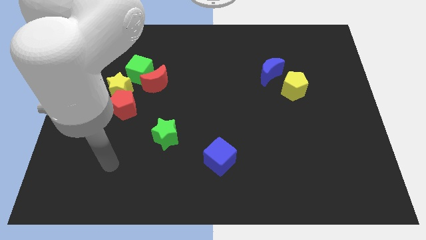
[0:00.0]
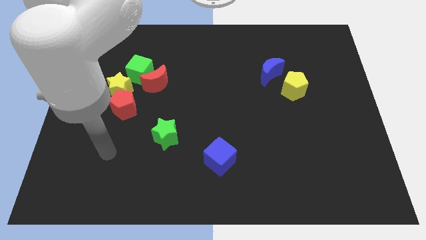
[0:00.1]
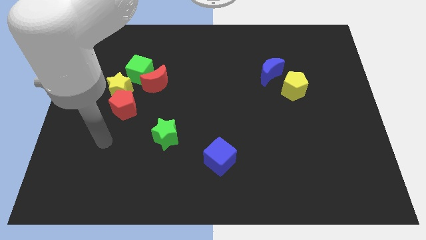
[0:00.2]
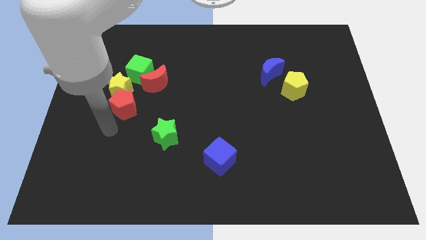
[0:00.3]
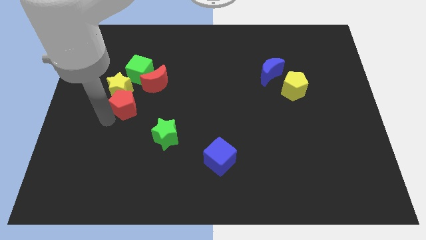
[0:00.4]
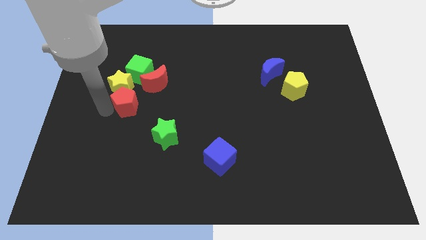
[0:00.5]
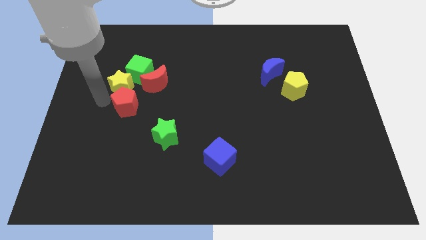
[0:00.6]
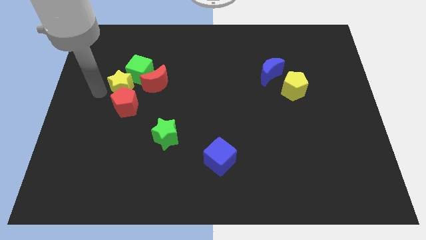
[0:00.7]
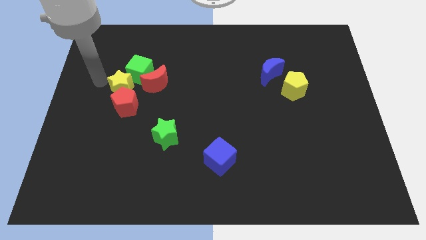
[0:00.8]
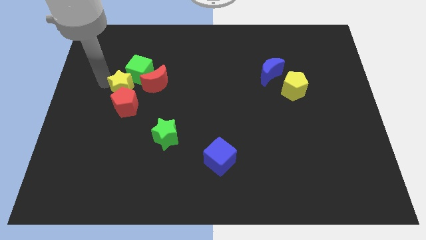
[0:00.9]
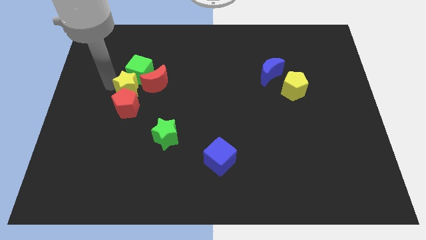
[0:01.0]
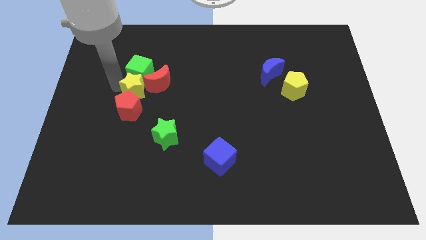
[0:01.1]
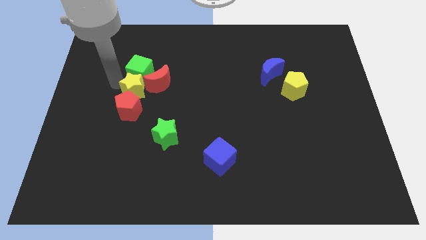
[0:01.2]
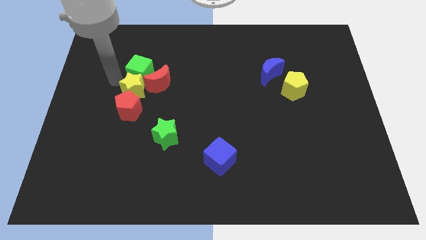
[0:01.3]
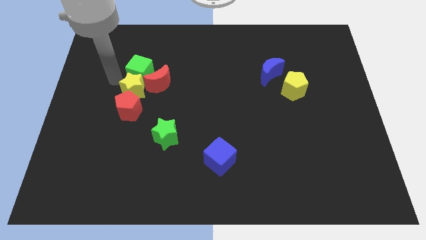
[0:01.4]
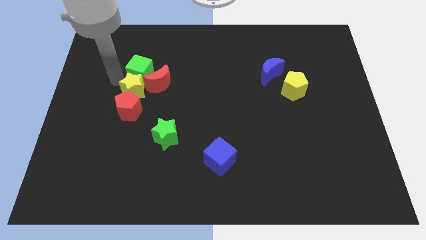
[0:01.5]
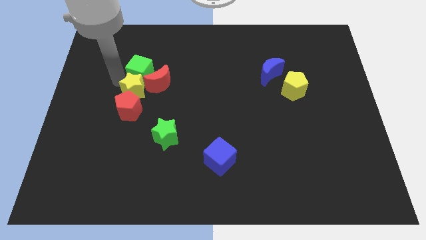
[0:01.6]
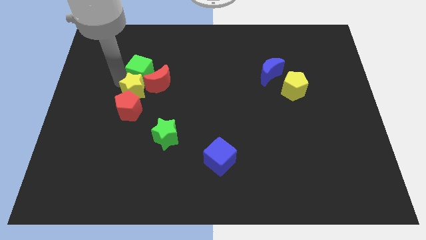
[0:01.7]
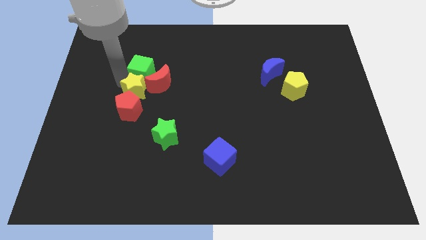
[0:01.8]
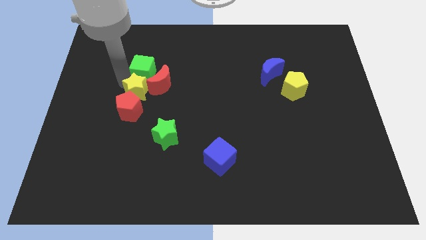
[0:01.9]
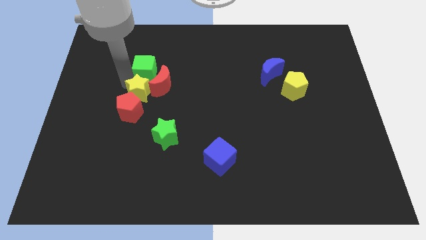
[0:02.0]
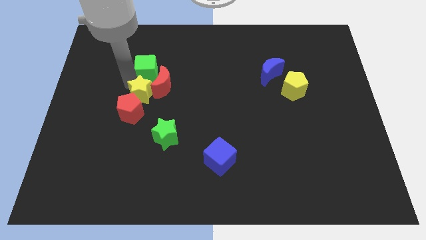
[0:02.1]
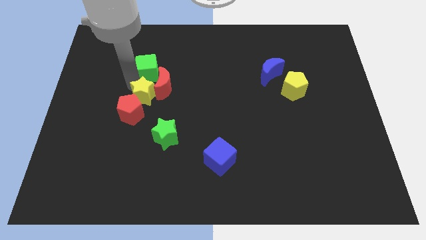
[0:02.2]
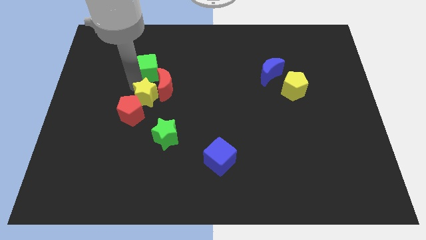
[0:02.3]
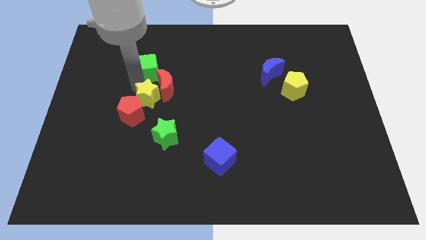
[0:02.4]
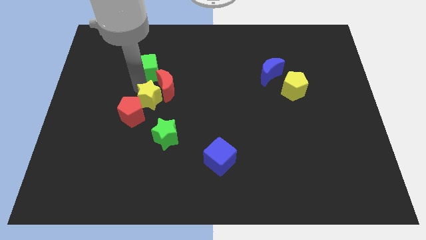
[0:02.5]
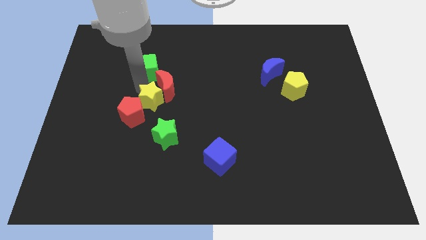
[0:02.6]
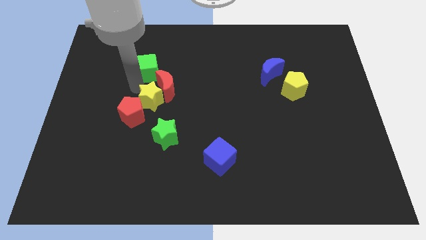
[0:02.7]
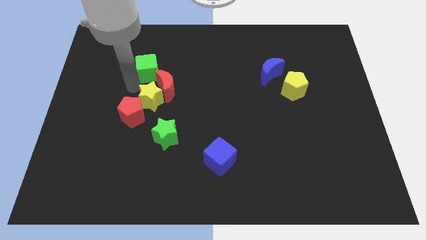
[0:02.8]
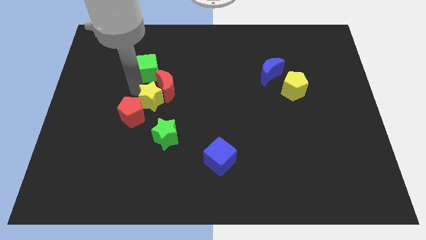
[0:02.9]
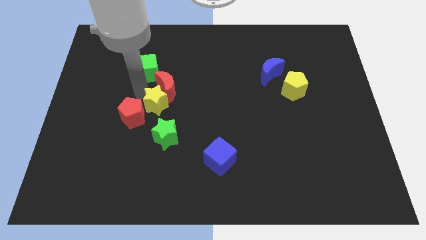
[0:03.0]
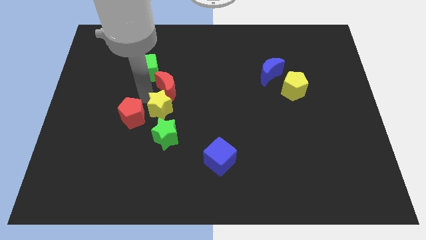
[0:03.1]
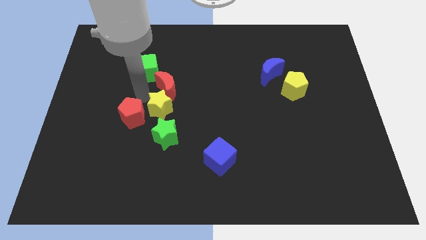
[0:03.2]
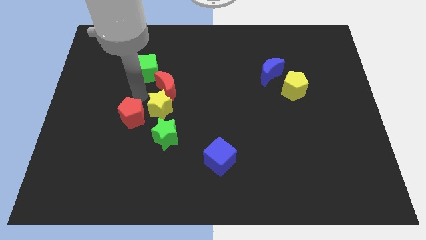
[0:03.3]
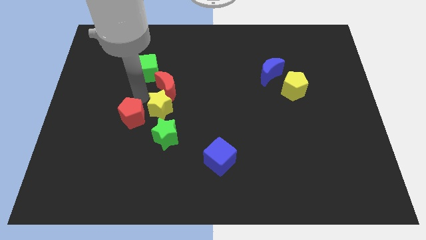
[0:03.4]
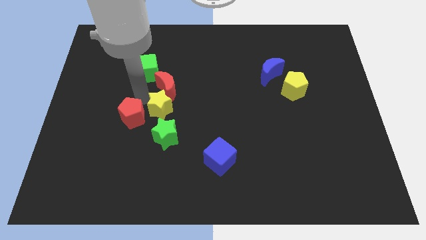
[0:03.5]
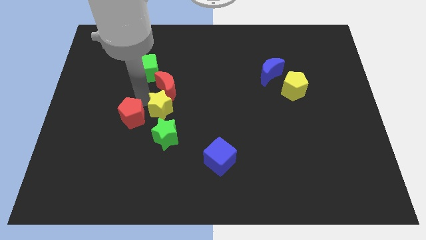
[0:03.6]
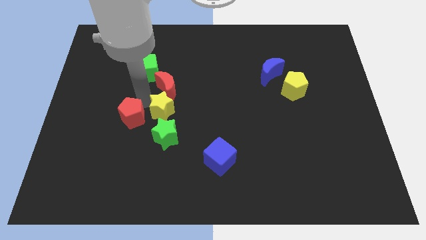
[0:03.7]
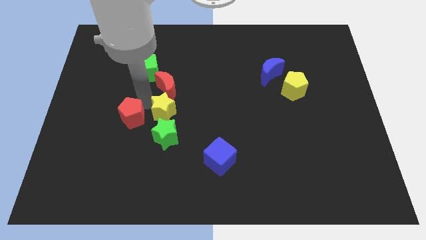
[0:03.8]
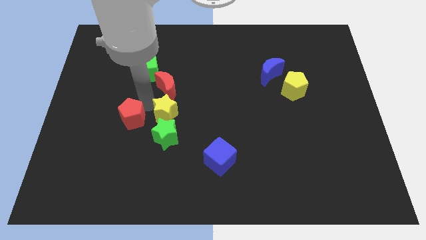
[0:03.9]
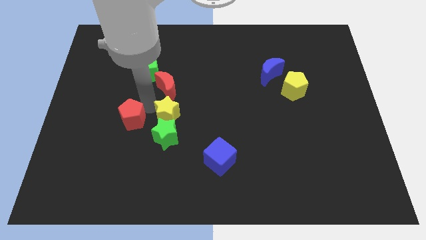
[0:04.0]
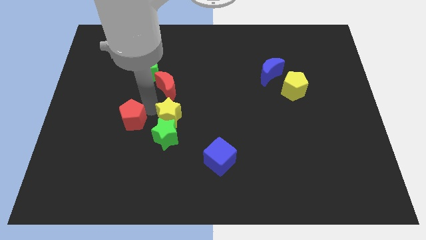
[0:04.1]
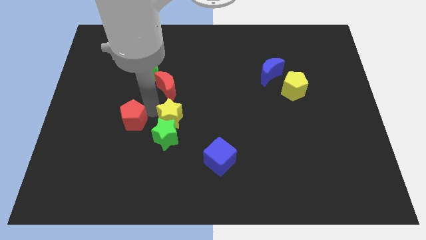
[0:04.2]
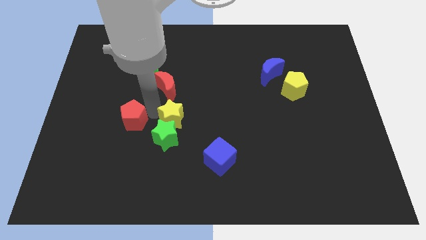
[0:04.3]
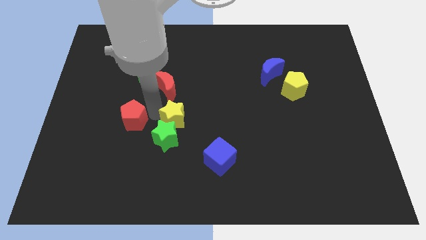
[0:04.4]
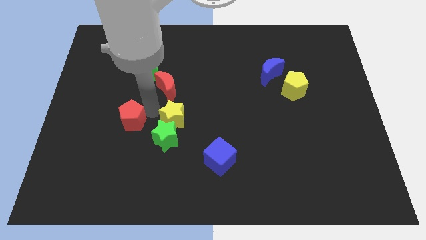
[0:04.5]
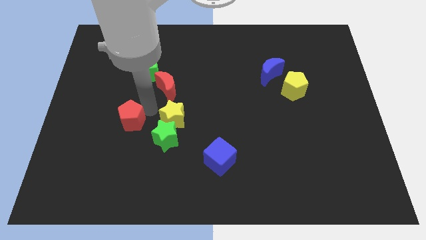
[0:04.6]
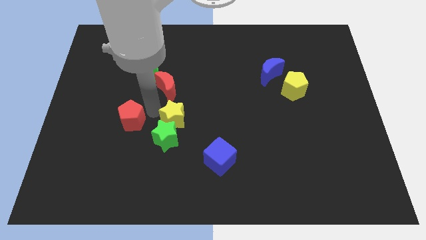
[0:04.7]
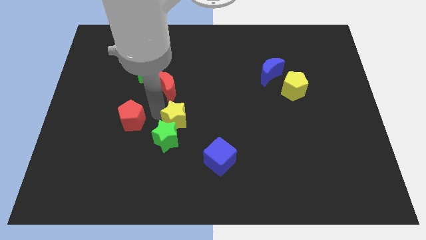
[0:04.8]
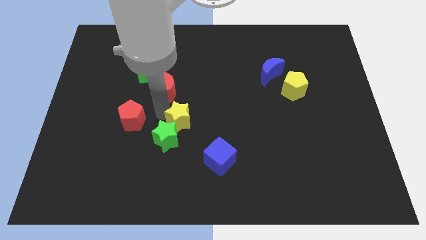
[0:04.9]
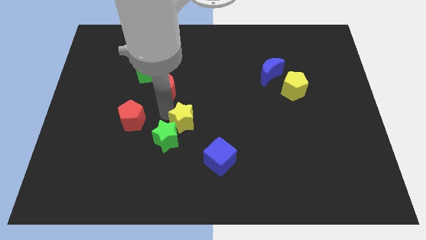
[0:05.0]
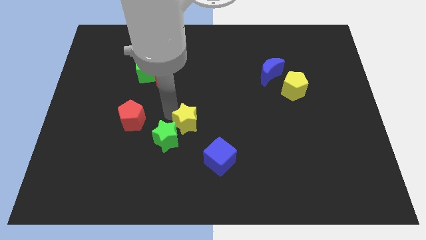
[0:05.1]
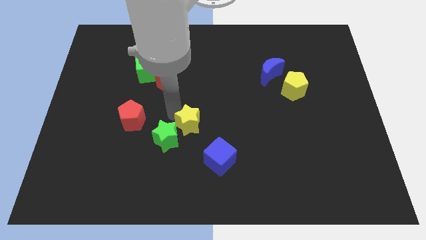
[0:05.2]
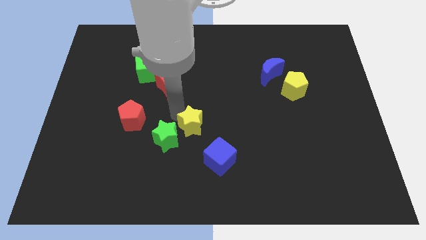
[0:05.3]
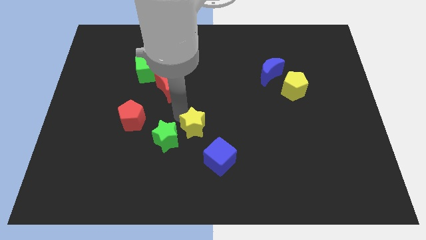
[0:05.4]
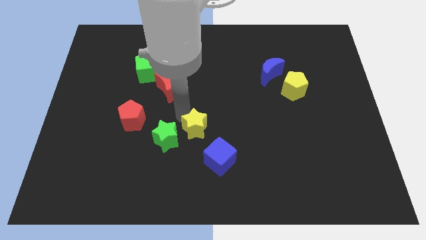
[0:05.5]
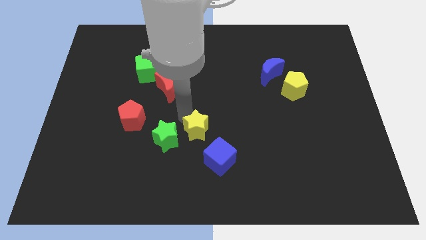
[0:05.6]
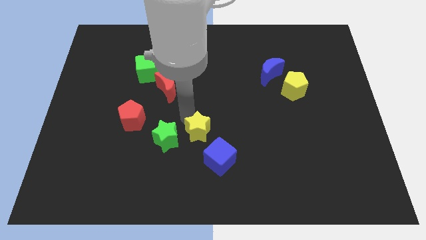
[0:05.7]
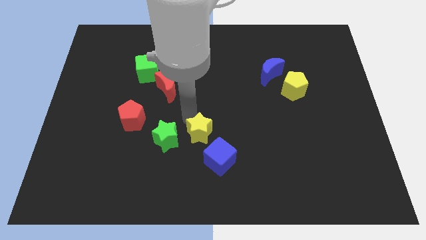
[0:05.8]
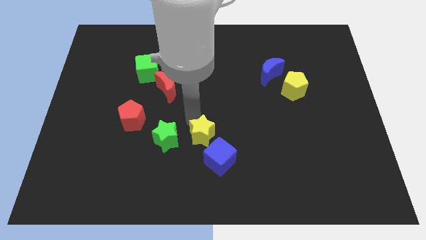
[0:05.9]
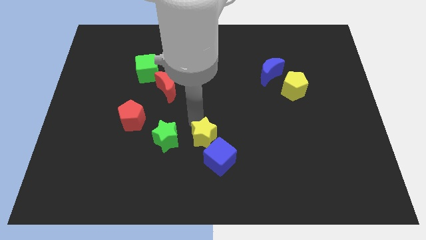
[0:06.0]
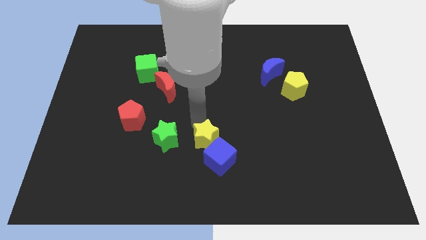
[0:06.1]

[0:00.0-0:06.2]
push the yellow star close to the blue cube

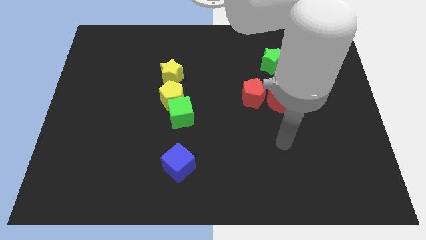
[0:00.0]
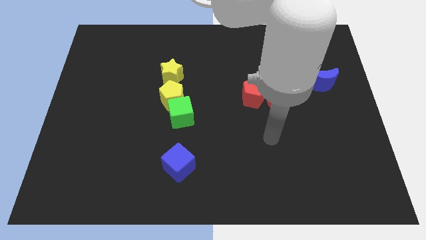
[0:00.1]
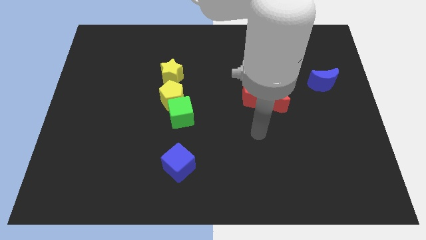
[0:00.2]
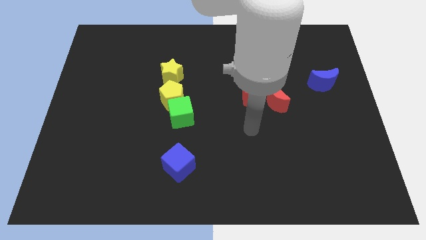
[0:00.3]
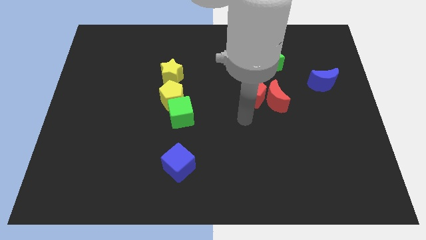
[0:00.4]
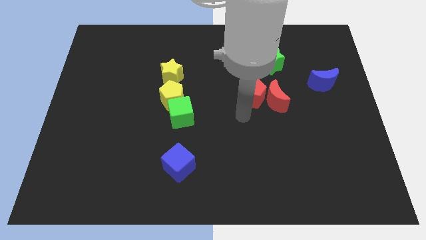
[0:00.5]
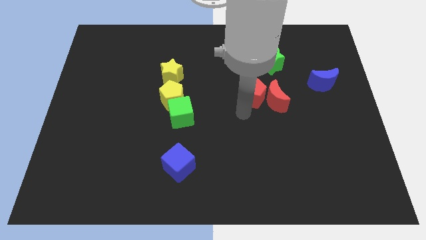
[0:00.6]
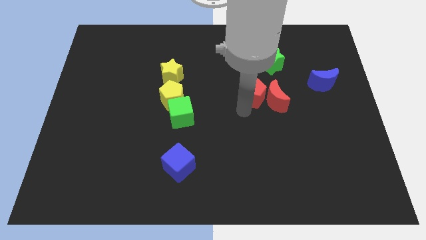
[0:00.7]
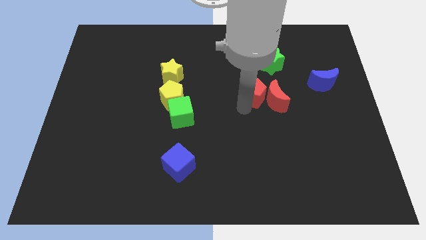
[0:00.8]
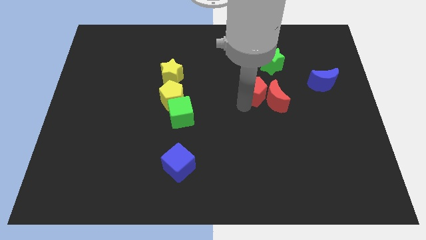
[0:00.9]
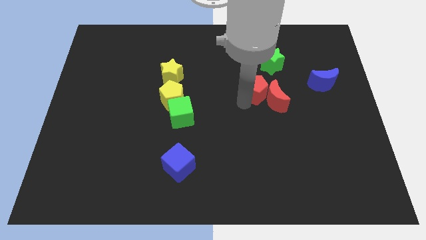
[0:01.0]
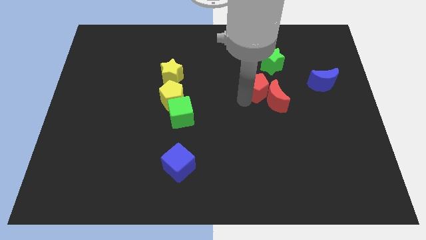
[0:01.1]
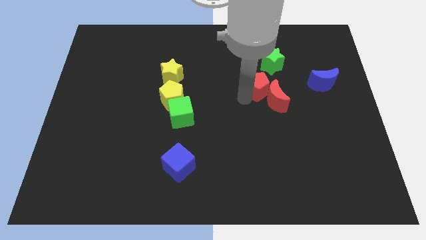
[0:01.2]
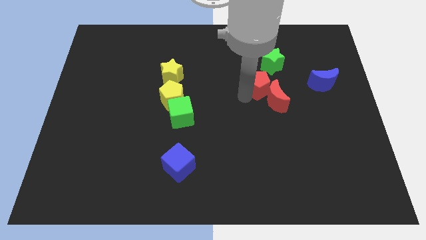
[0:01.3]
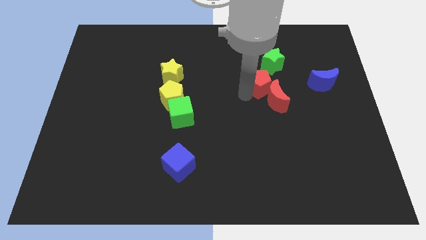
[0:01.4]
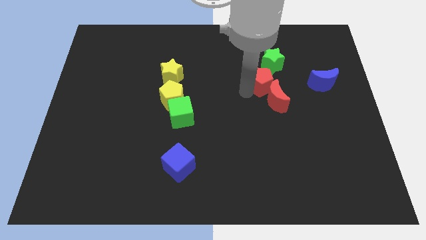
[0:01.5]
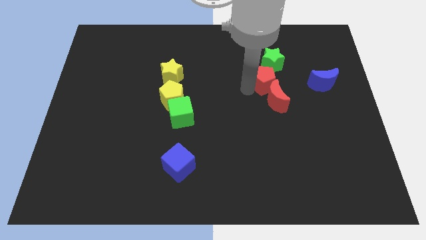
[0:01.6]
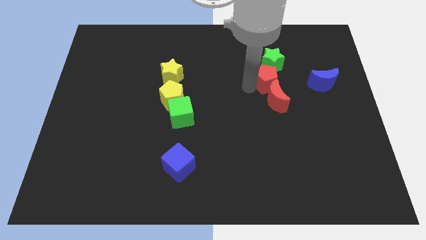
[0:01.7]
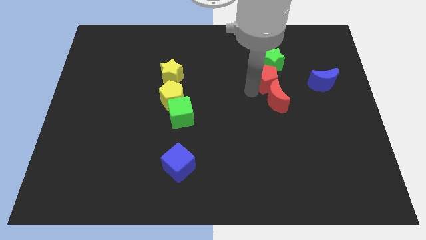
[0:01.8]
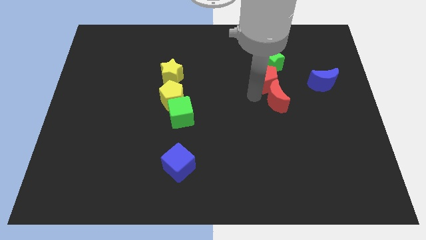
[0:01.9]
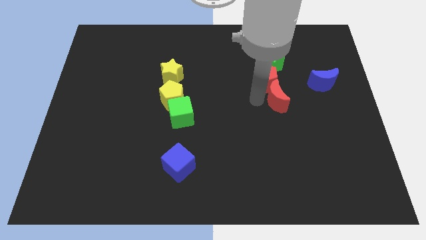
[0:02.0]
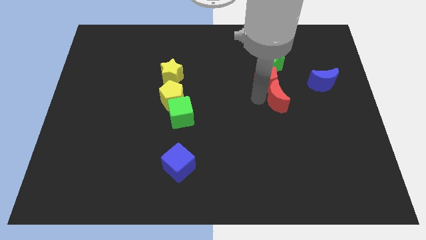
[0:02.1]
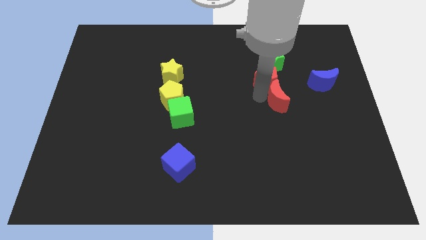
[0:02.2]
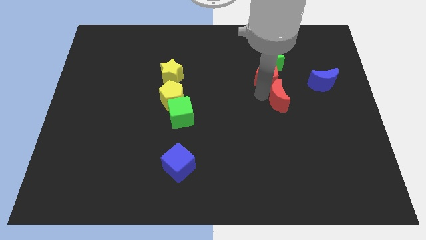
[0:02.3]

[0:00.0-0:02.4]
move the red pentagon to the green star
